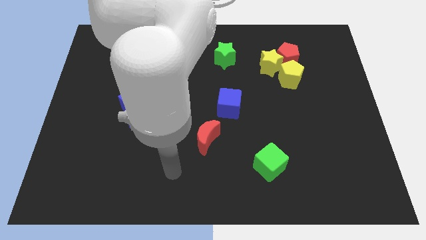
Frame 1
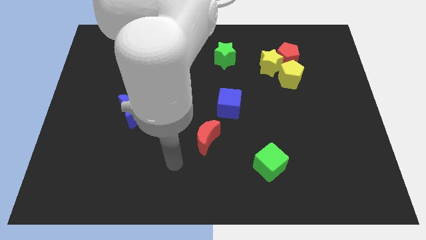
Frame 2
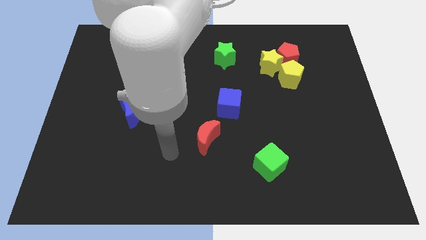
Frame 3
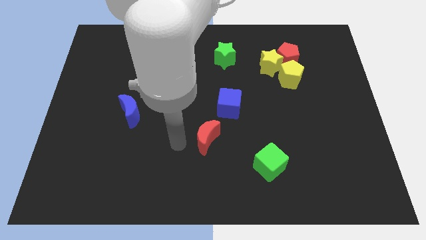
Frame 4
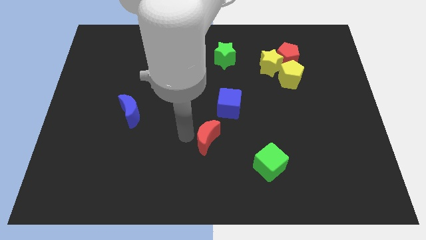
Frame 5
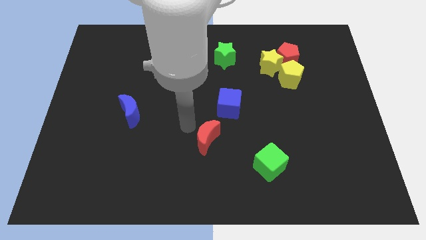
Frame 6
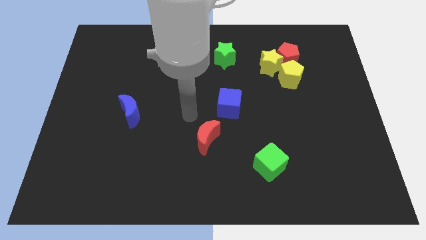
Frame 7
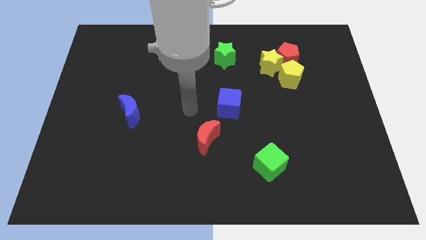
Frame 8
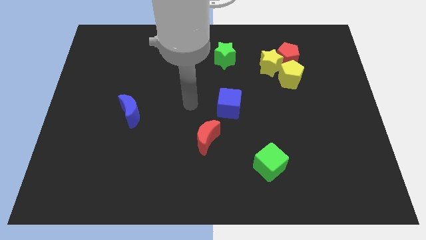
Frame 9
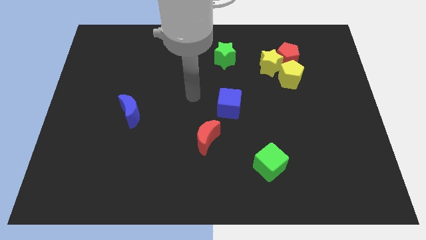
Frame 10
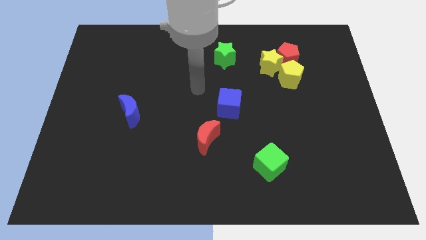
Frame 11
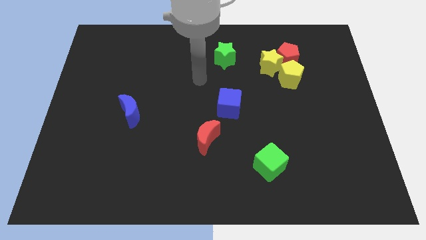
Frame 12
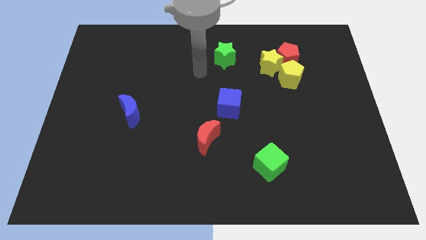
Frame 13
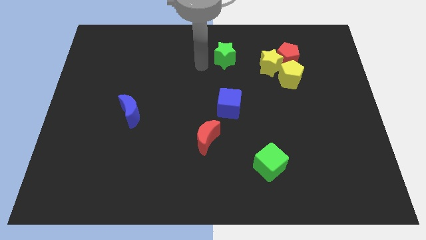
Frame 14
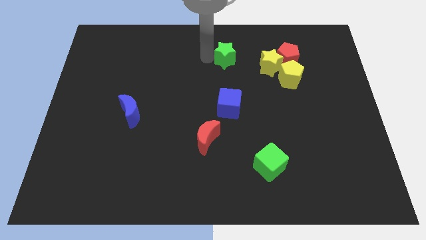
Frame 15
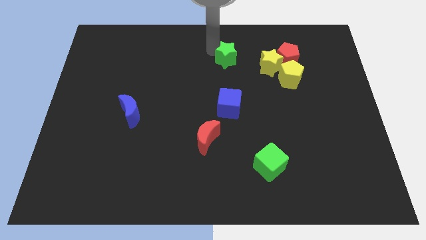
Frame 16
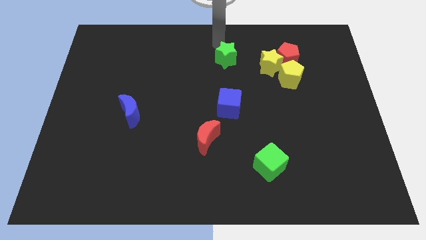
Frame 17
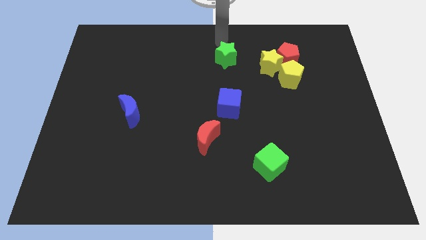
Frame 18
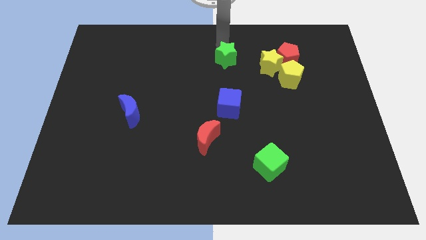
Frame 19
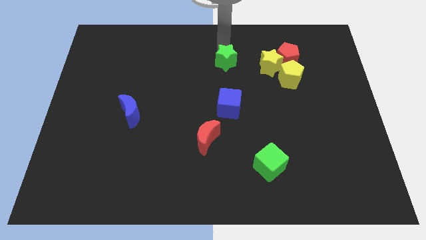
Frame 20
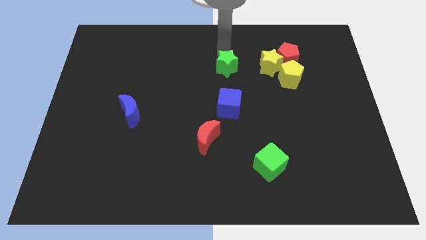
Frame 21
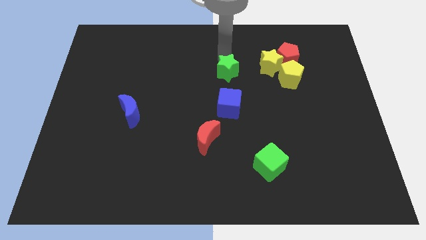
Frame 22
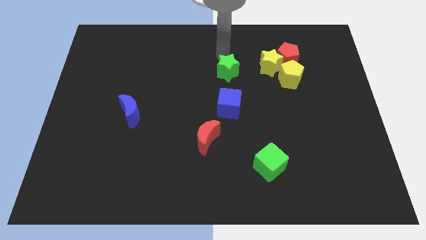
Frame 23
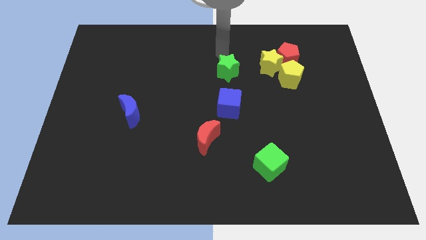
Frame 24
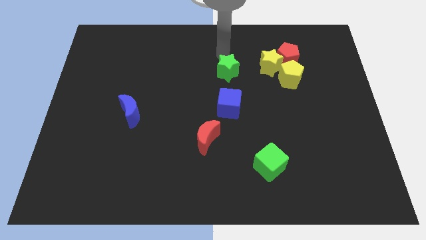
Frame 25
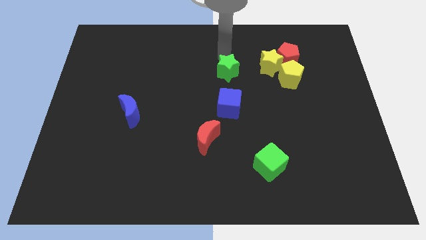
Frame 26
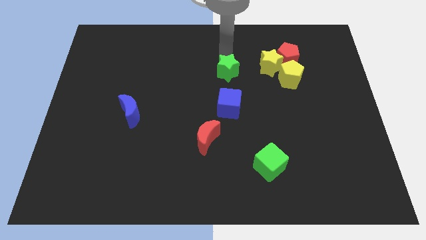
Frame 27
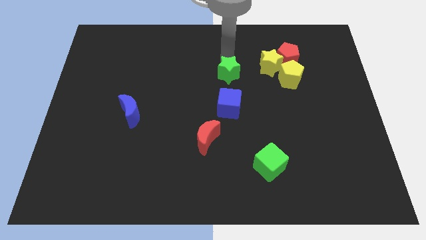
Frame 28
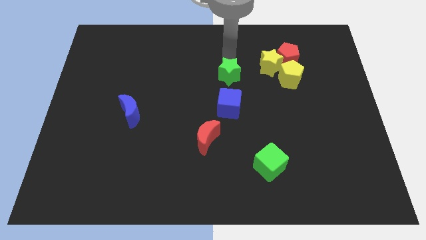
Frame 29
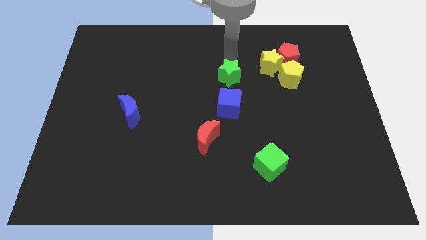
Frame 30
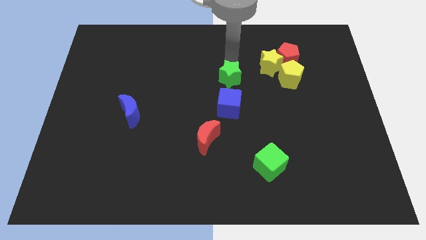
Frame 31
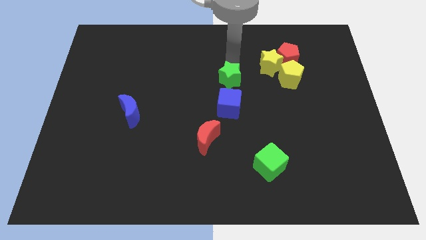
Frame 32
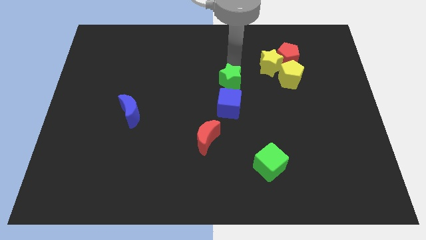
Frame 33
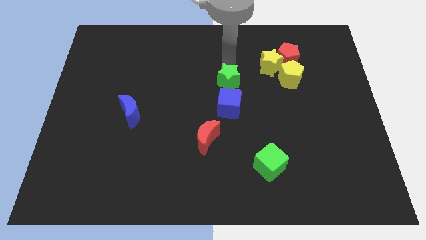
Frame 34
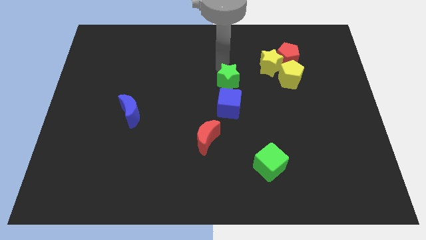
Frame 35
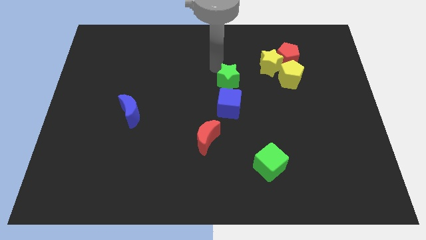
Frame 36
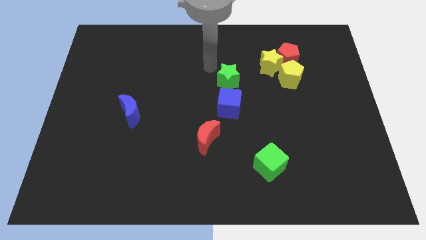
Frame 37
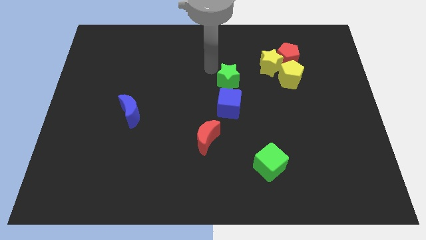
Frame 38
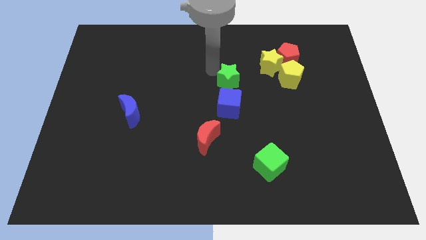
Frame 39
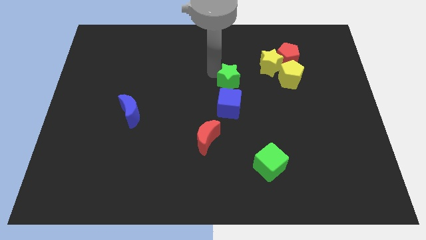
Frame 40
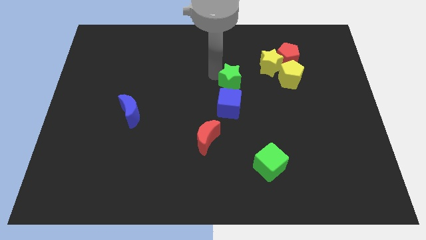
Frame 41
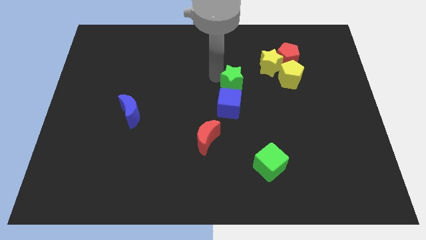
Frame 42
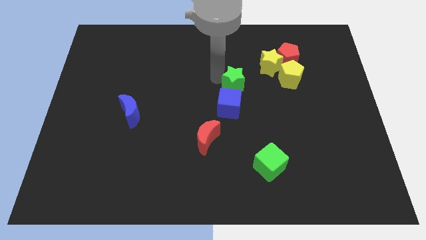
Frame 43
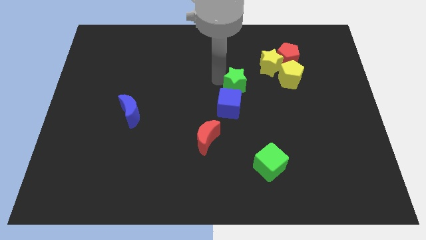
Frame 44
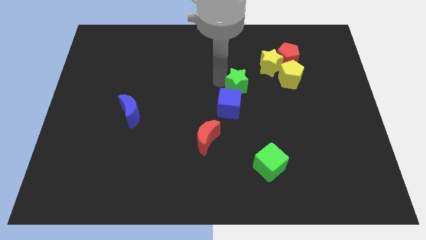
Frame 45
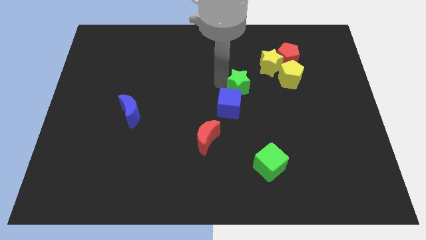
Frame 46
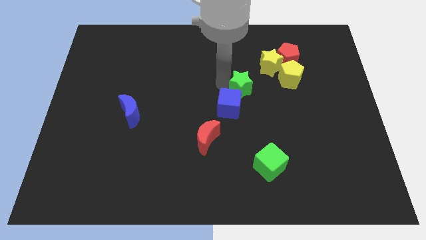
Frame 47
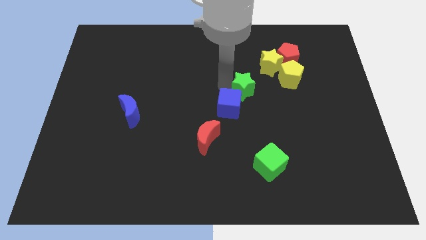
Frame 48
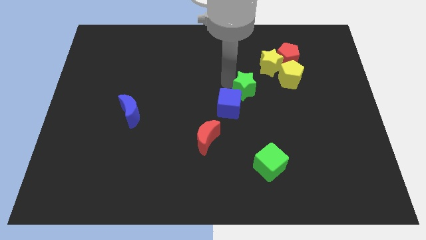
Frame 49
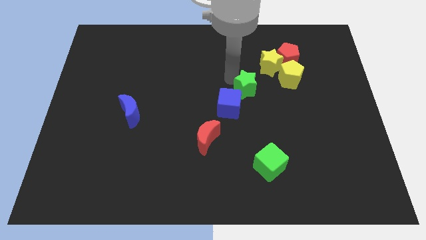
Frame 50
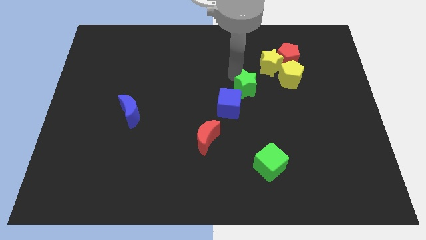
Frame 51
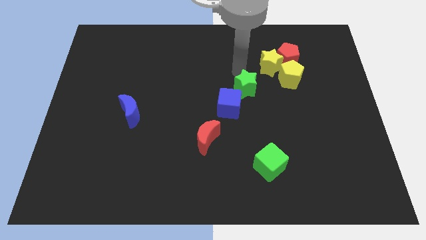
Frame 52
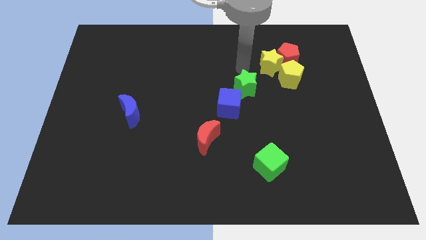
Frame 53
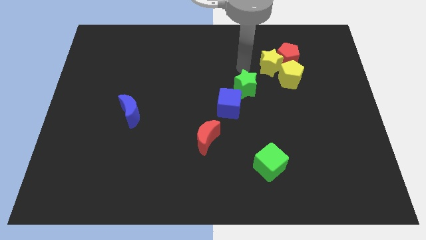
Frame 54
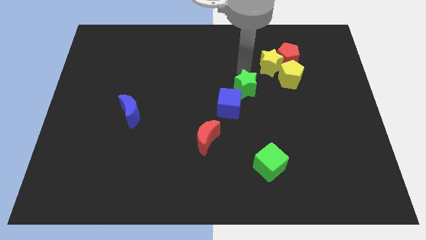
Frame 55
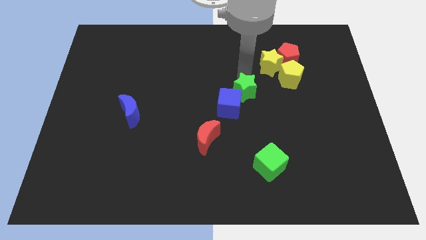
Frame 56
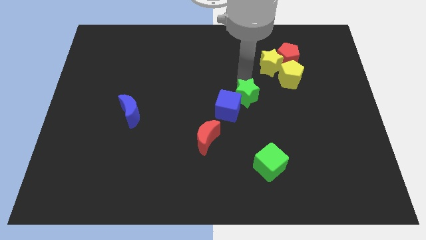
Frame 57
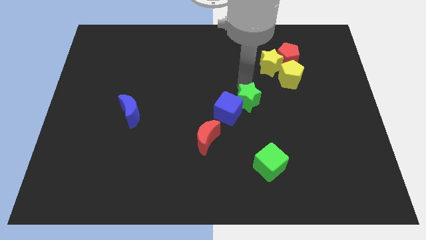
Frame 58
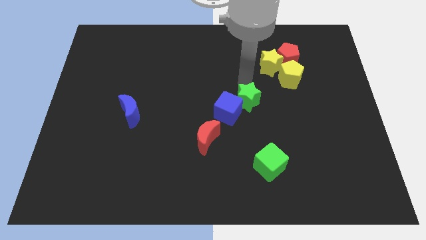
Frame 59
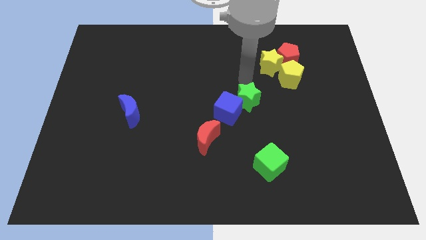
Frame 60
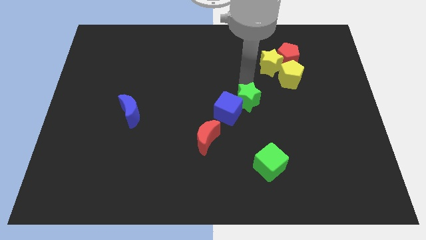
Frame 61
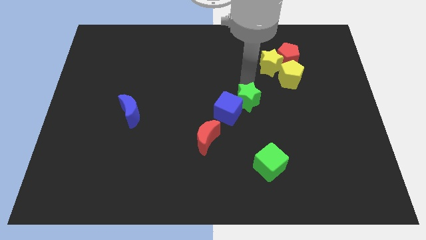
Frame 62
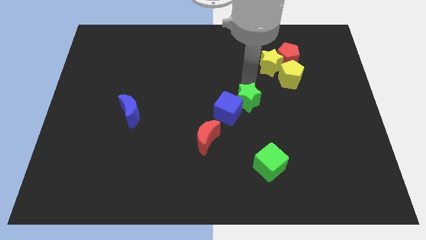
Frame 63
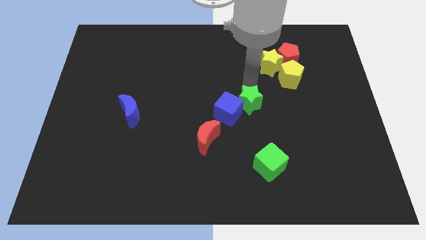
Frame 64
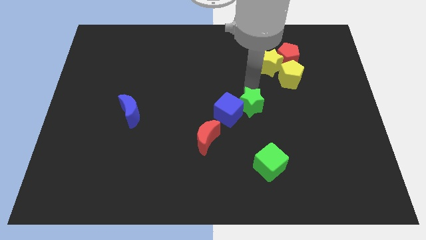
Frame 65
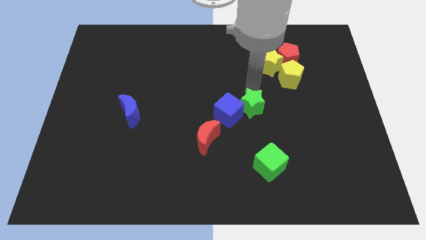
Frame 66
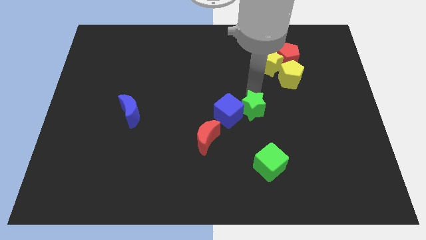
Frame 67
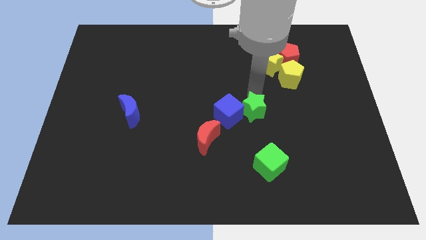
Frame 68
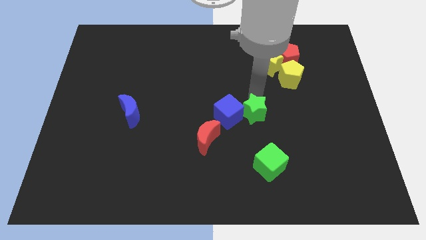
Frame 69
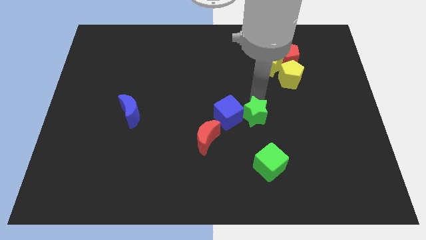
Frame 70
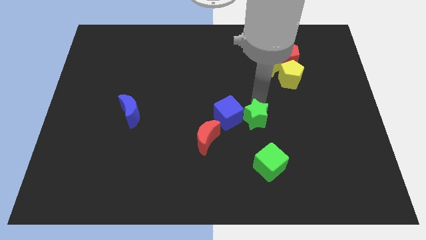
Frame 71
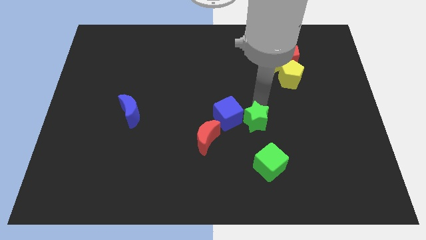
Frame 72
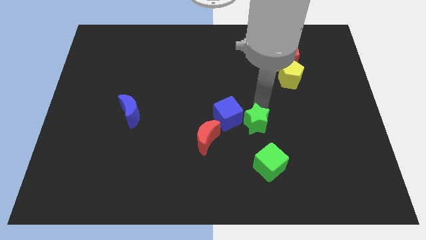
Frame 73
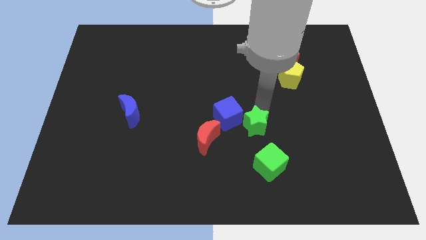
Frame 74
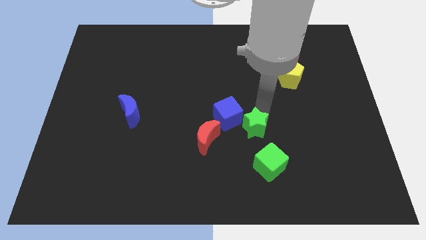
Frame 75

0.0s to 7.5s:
slide the green star down

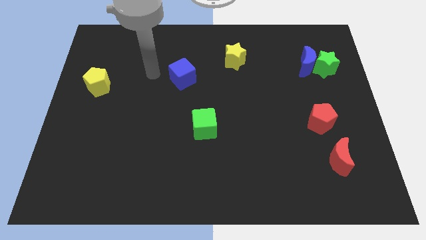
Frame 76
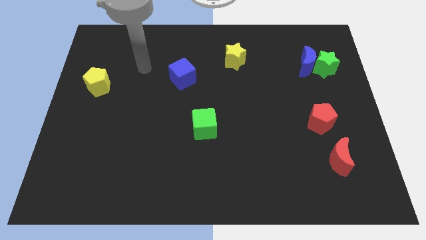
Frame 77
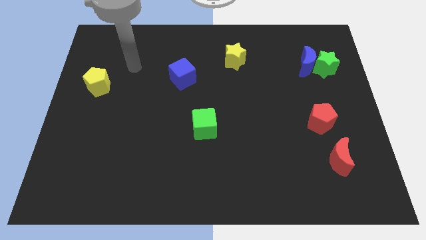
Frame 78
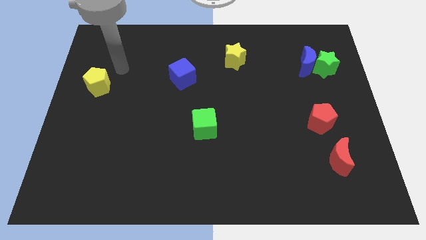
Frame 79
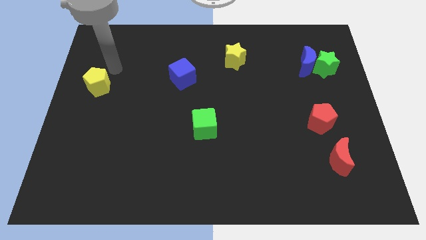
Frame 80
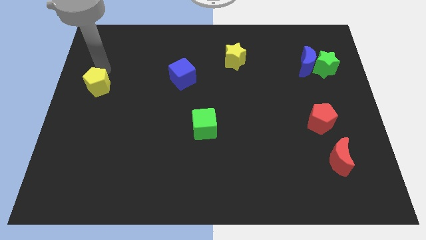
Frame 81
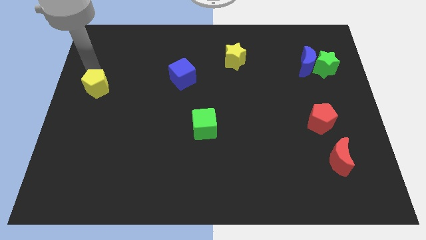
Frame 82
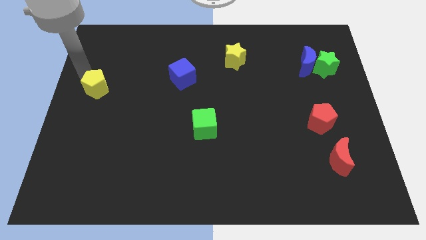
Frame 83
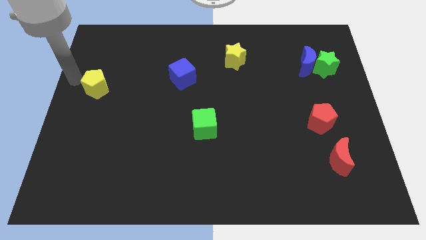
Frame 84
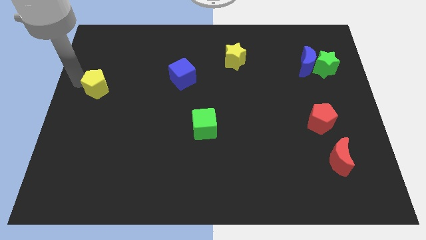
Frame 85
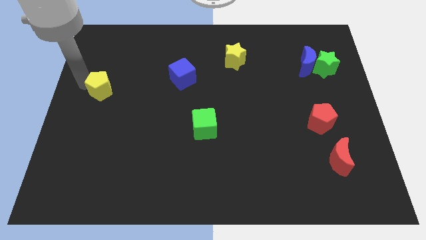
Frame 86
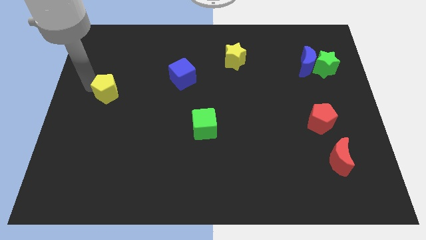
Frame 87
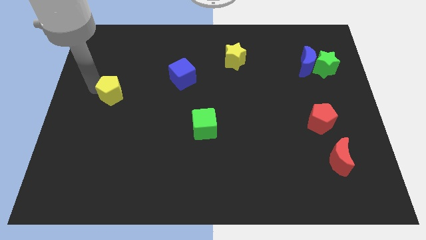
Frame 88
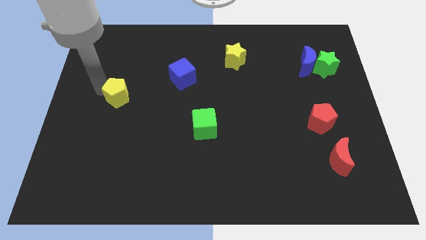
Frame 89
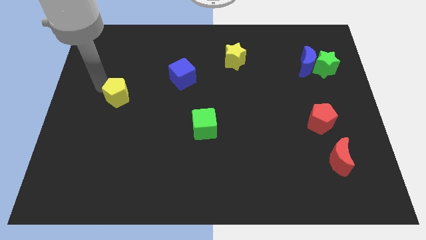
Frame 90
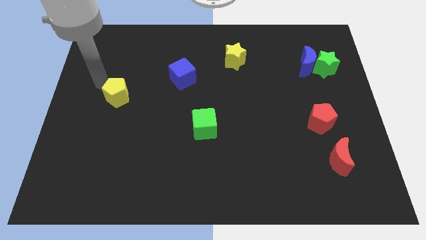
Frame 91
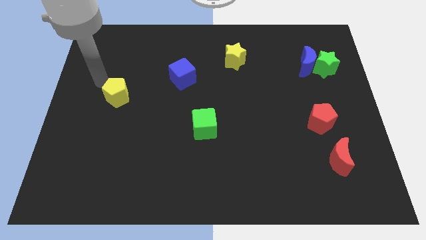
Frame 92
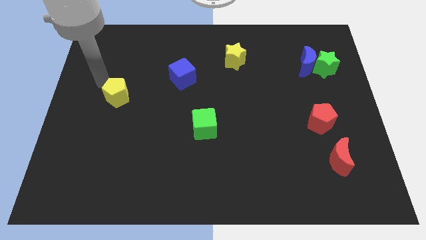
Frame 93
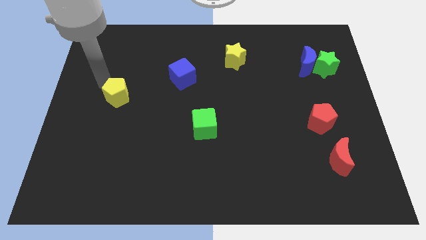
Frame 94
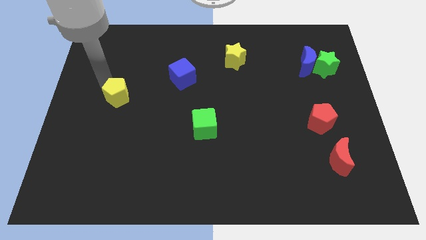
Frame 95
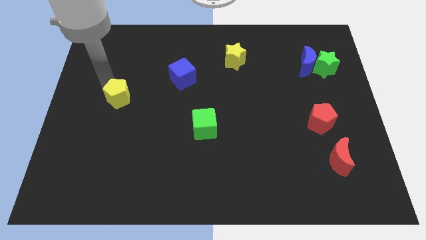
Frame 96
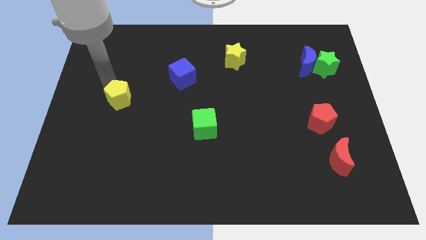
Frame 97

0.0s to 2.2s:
slightly push the yellow pentagon downwards and to the right diagonally
